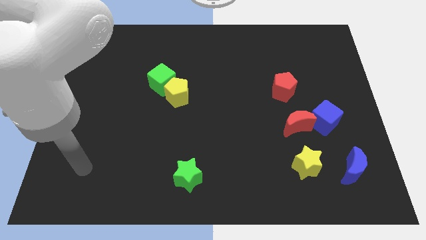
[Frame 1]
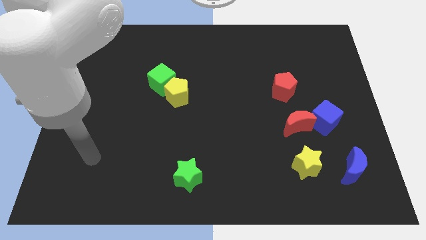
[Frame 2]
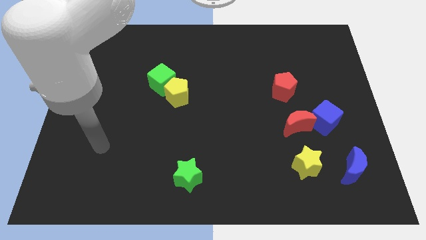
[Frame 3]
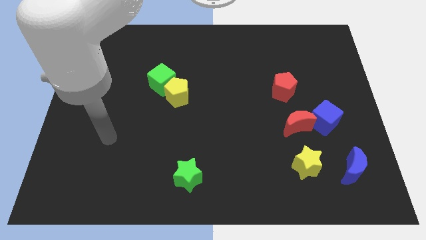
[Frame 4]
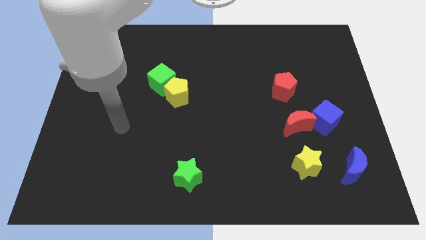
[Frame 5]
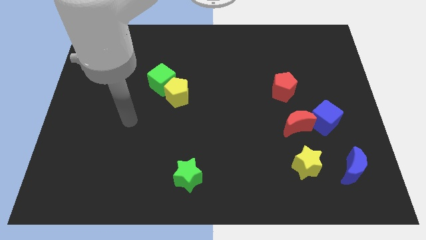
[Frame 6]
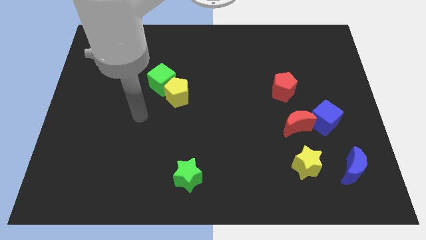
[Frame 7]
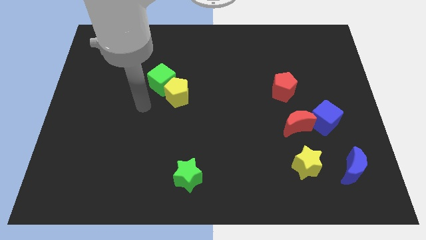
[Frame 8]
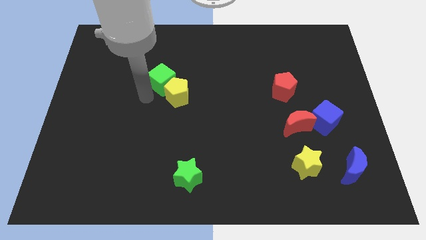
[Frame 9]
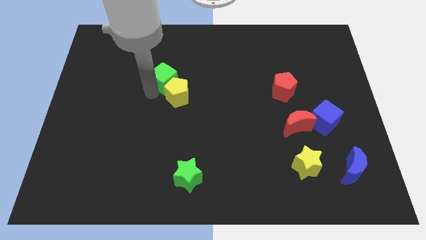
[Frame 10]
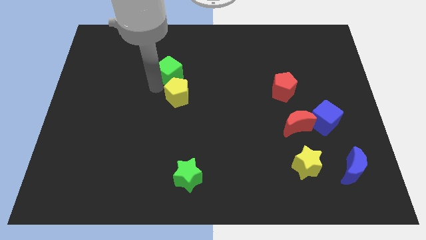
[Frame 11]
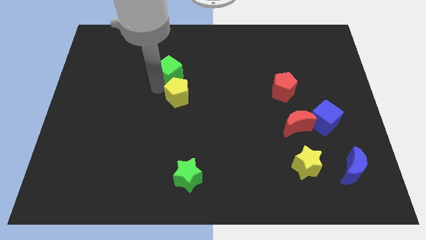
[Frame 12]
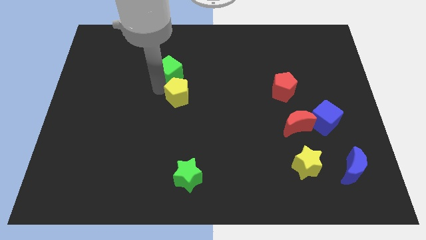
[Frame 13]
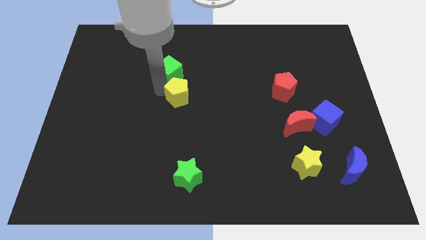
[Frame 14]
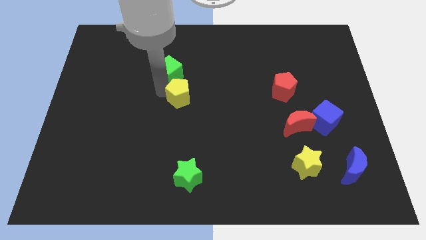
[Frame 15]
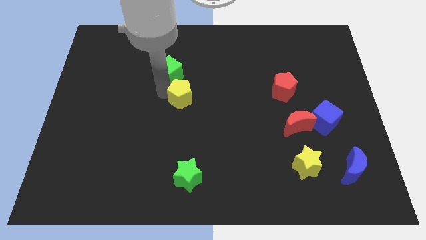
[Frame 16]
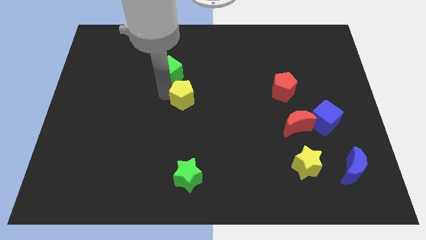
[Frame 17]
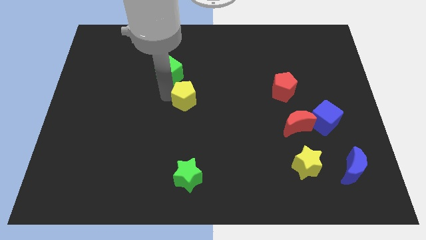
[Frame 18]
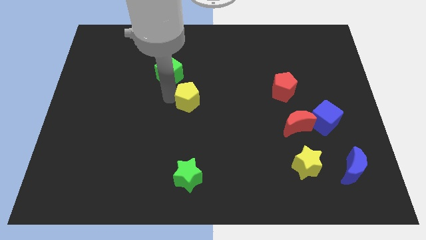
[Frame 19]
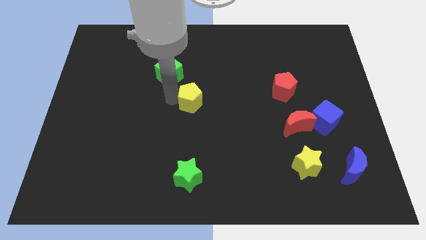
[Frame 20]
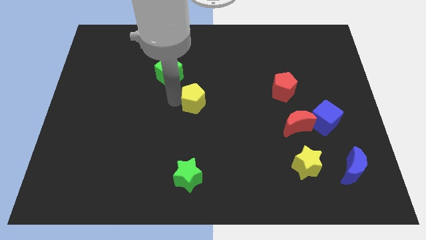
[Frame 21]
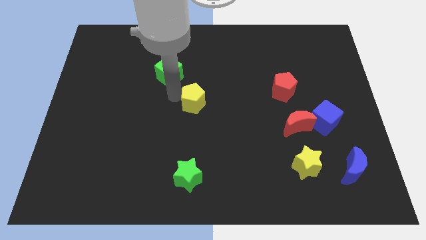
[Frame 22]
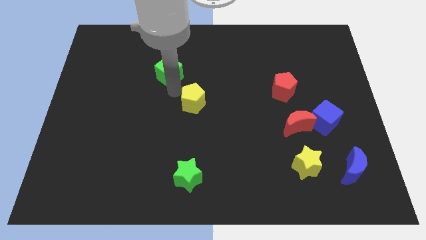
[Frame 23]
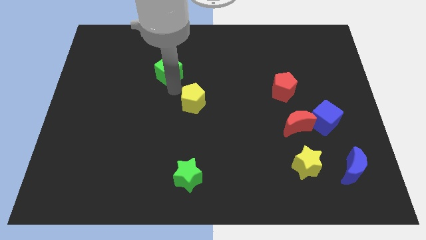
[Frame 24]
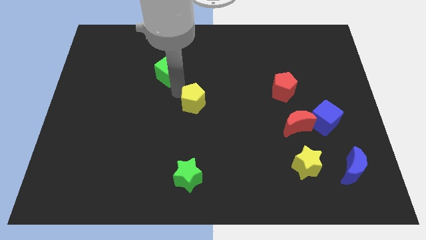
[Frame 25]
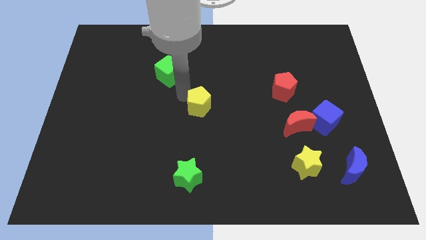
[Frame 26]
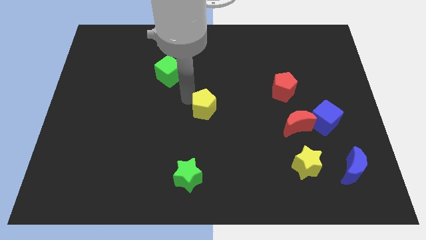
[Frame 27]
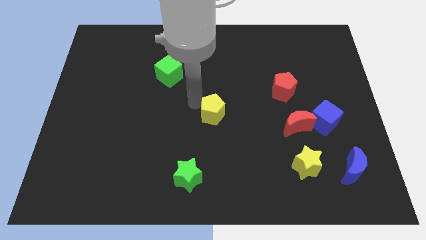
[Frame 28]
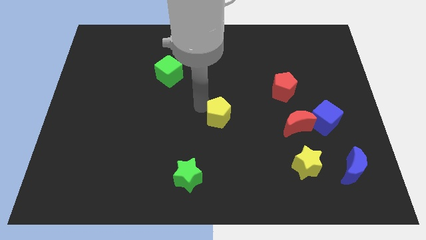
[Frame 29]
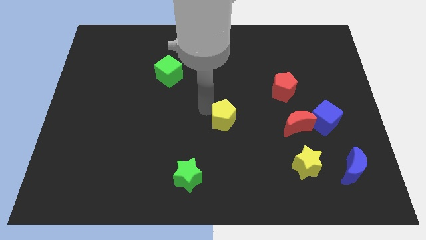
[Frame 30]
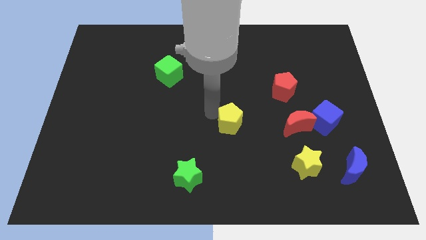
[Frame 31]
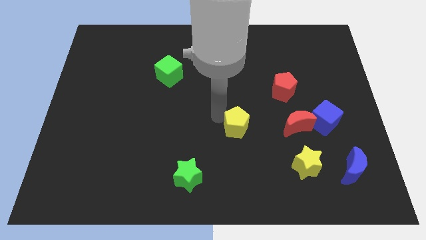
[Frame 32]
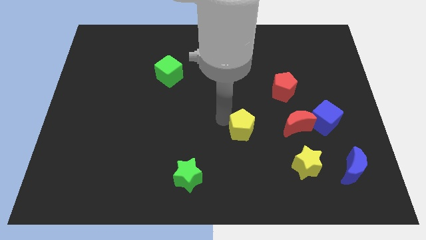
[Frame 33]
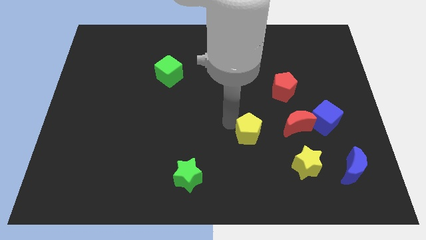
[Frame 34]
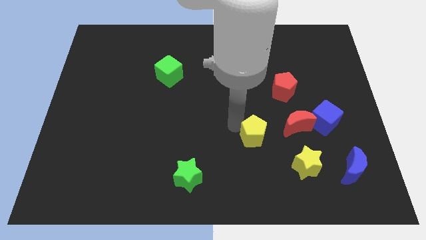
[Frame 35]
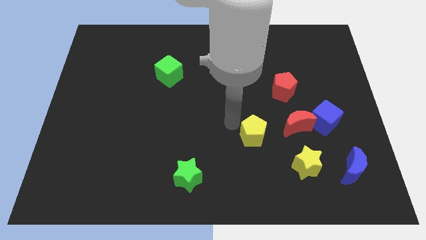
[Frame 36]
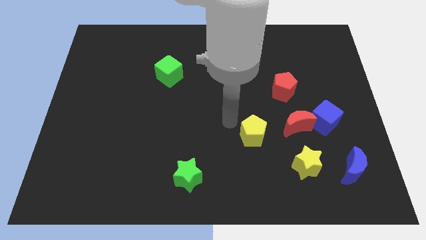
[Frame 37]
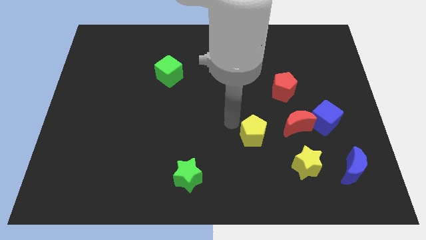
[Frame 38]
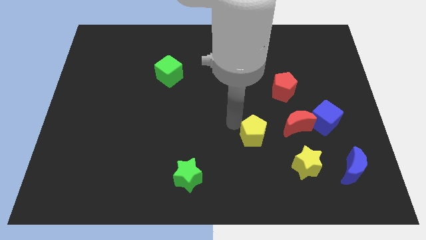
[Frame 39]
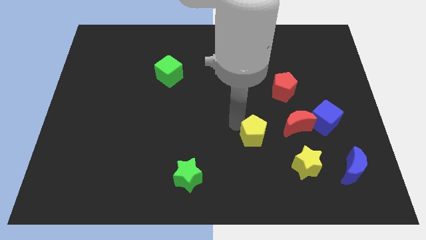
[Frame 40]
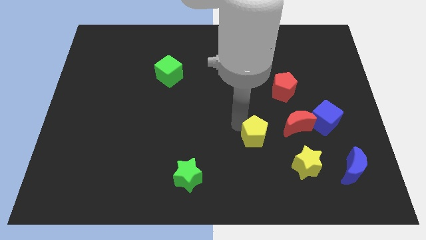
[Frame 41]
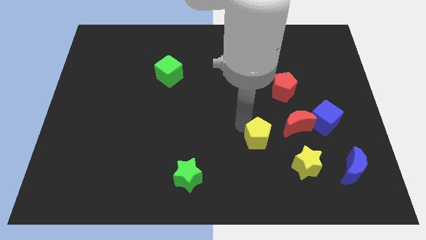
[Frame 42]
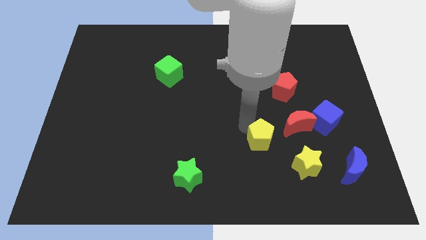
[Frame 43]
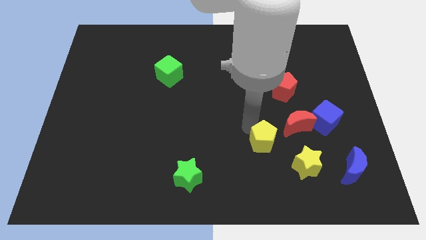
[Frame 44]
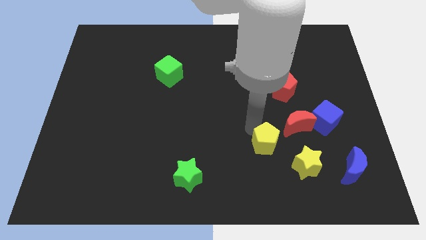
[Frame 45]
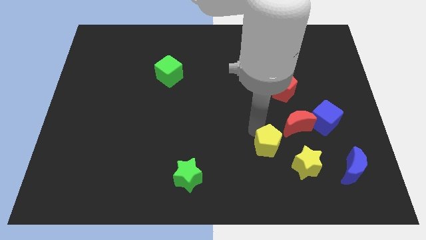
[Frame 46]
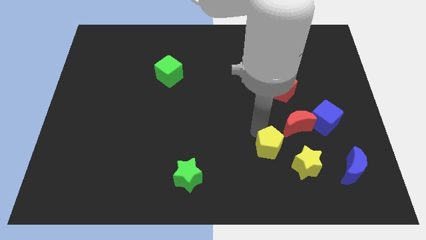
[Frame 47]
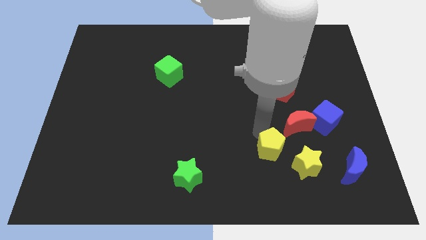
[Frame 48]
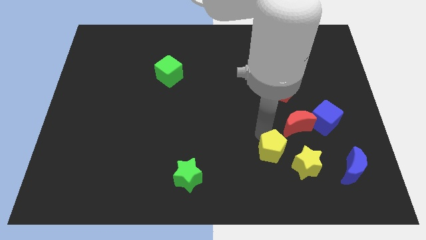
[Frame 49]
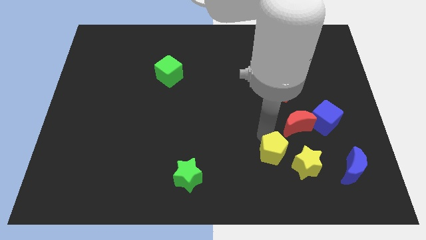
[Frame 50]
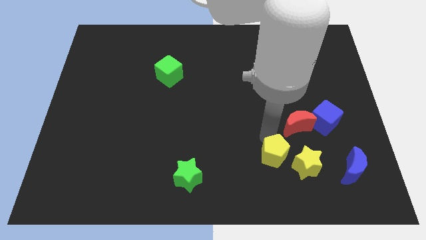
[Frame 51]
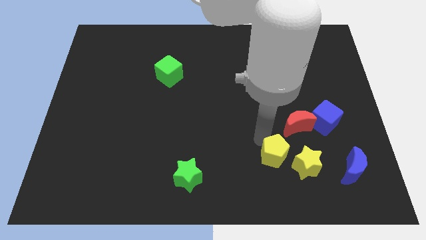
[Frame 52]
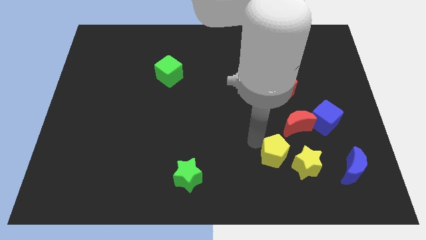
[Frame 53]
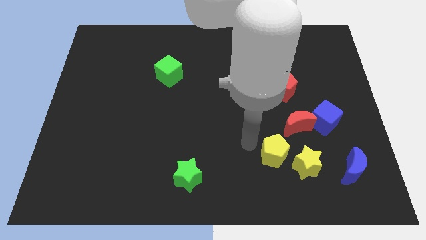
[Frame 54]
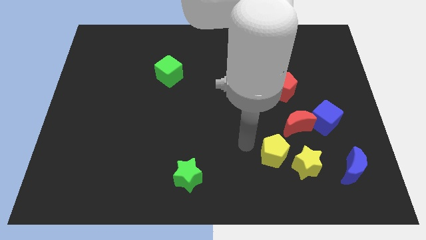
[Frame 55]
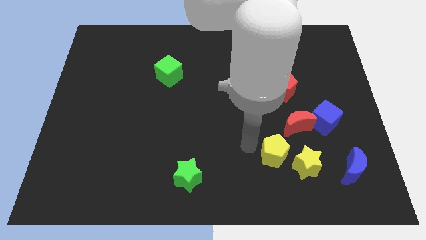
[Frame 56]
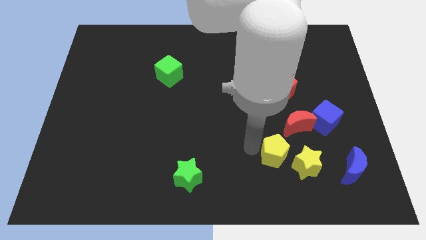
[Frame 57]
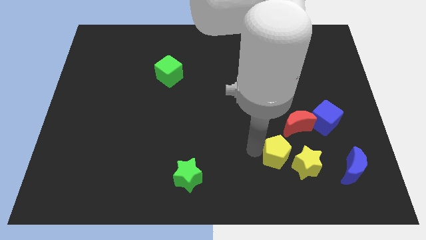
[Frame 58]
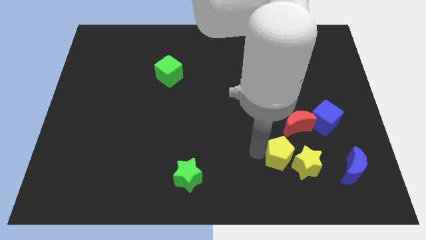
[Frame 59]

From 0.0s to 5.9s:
move the yellow pentagon next to the yellow star

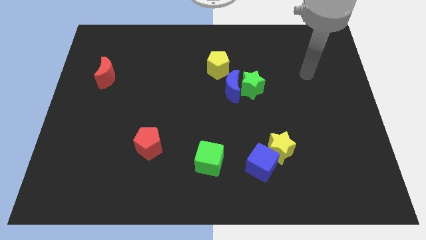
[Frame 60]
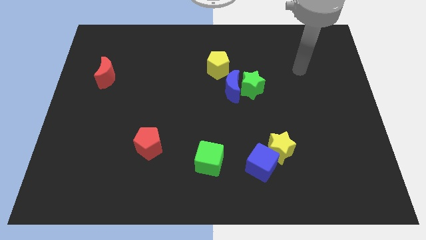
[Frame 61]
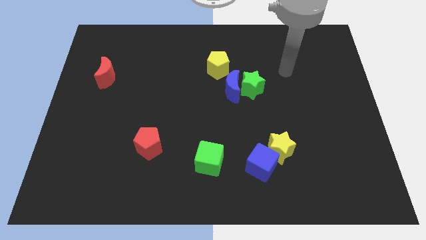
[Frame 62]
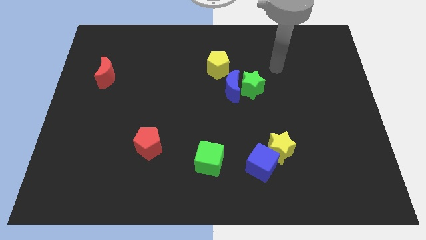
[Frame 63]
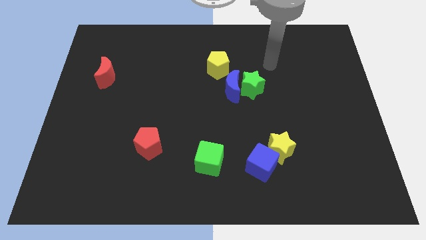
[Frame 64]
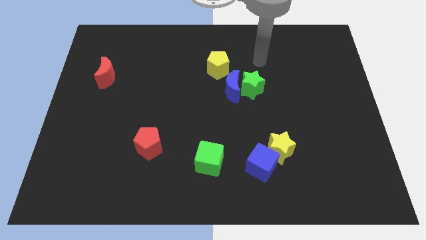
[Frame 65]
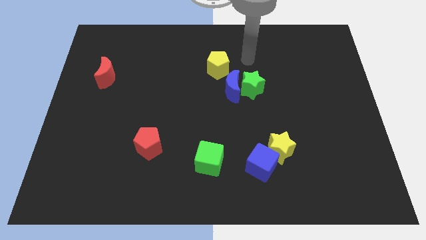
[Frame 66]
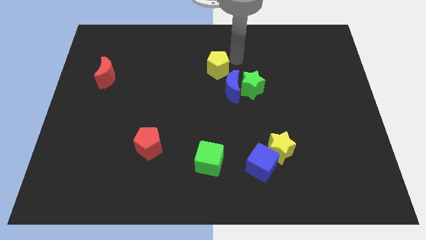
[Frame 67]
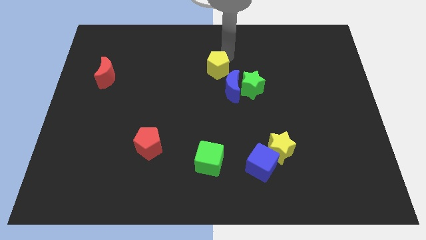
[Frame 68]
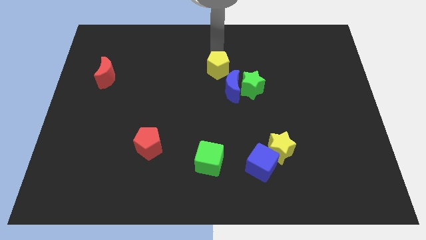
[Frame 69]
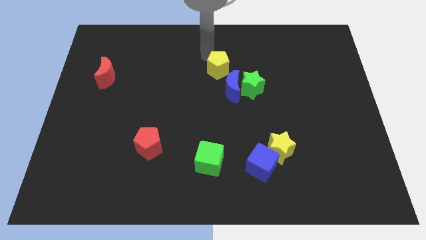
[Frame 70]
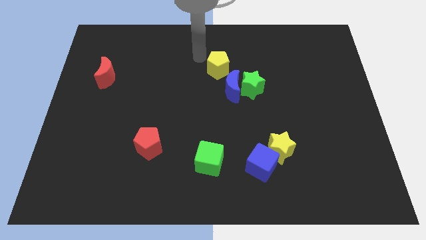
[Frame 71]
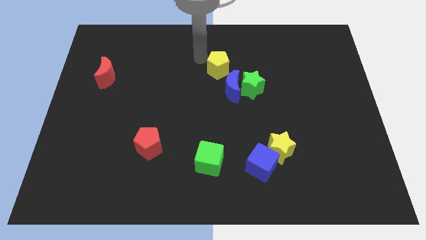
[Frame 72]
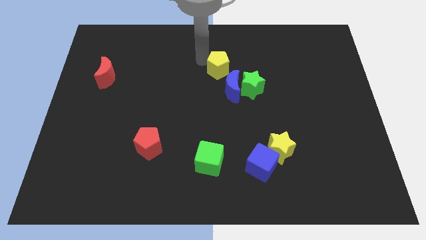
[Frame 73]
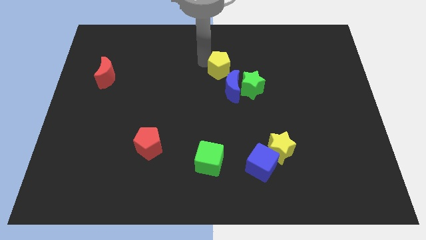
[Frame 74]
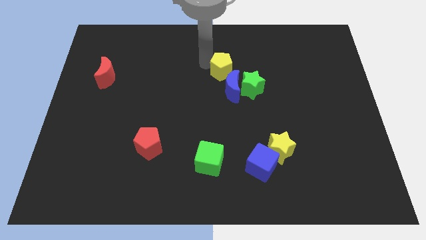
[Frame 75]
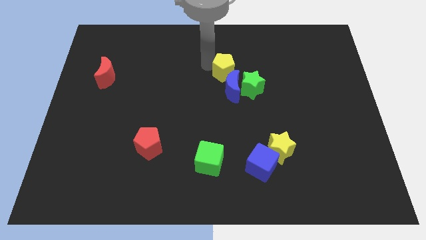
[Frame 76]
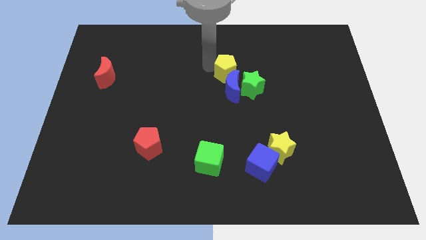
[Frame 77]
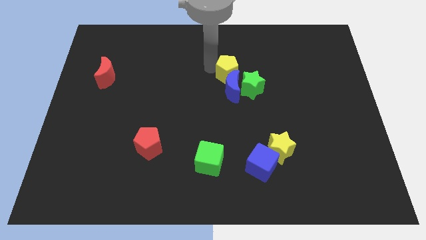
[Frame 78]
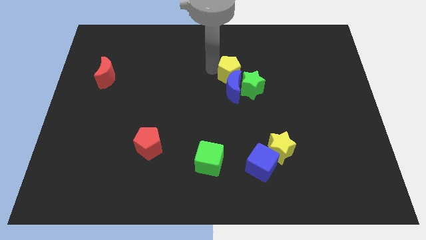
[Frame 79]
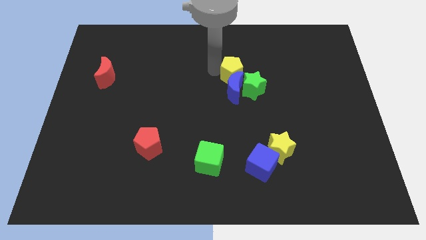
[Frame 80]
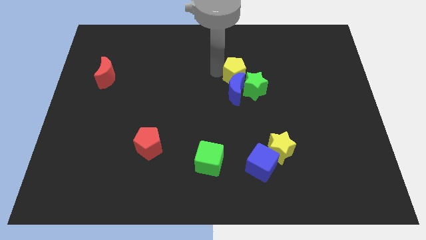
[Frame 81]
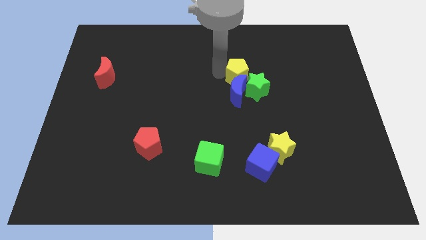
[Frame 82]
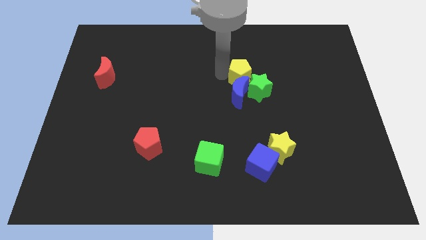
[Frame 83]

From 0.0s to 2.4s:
put the yellow pentagon next to the green star

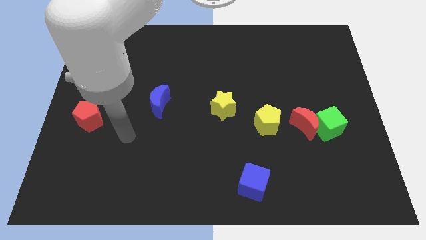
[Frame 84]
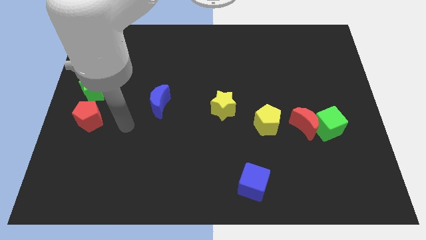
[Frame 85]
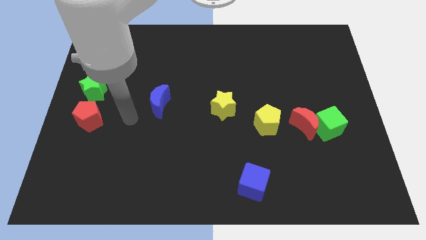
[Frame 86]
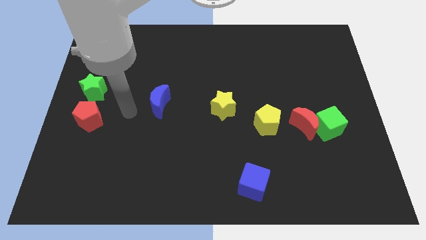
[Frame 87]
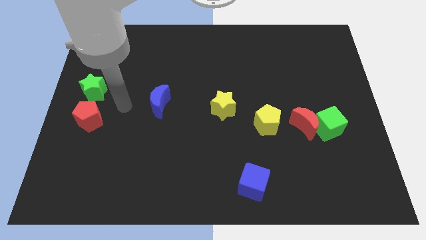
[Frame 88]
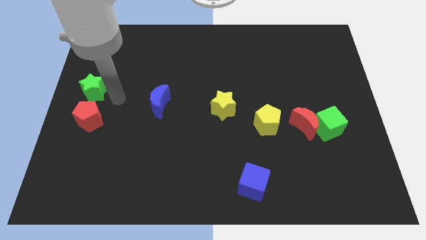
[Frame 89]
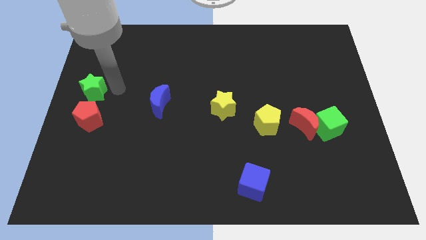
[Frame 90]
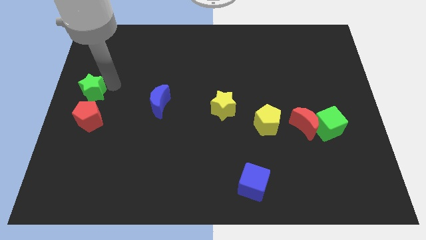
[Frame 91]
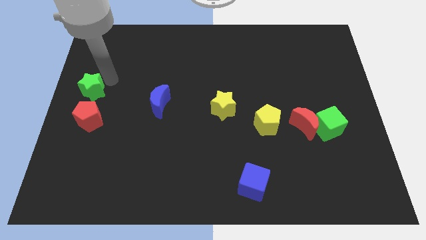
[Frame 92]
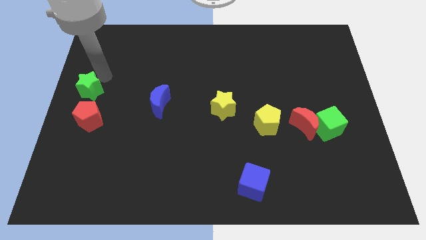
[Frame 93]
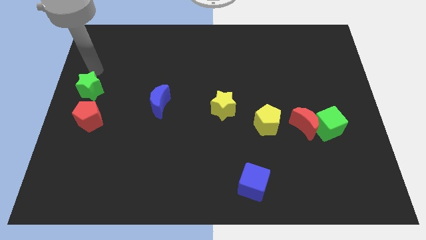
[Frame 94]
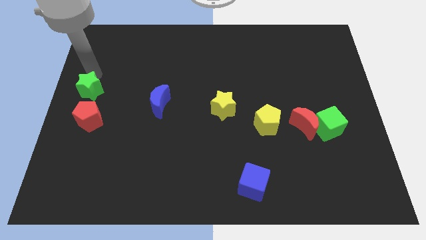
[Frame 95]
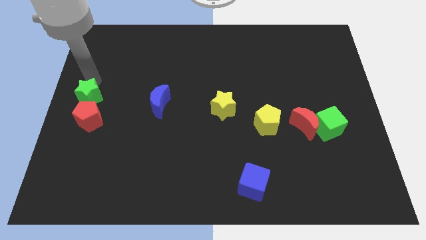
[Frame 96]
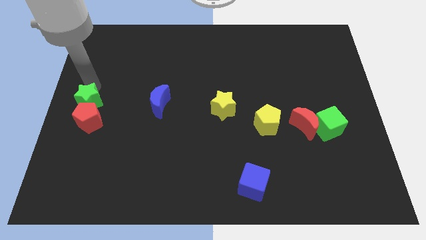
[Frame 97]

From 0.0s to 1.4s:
move the green star to the red pentagon
